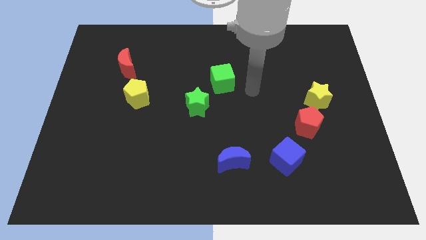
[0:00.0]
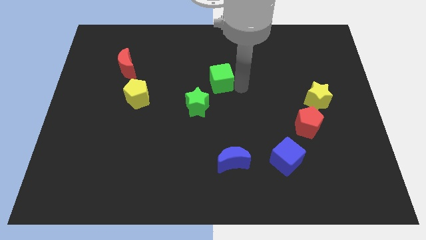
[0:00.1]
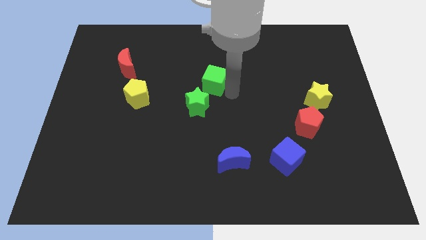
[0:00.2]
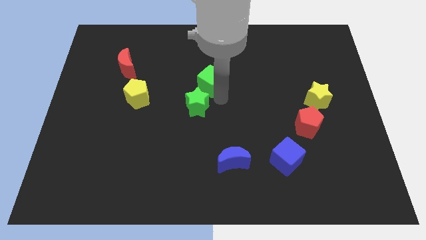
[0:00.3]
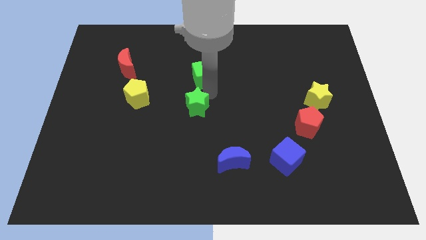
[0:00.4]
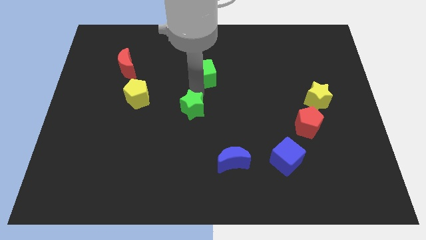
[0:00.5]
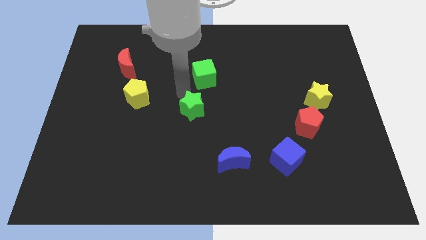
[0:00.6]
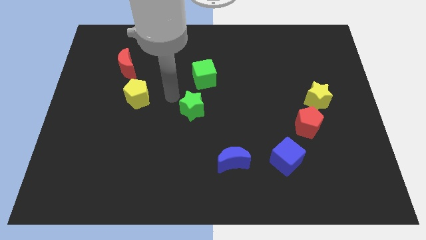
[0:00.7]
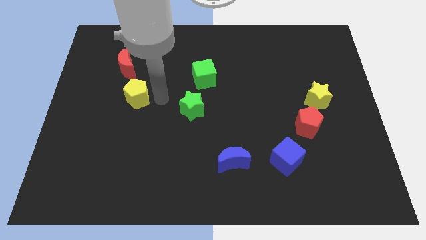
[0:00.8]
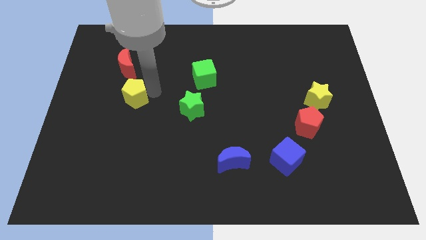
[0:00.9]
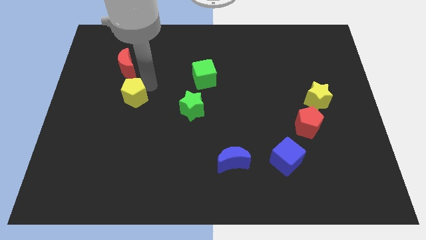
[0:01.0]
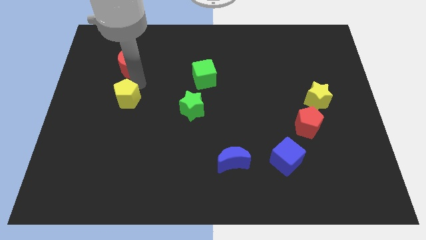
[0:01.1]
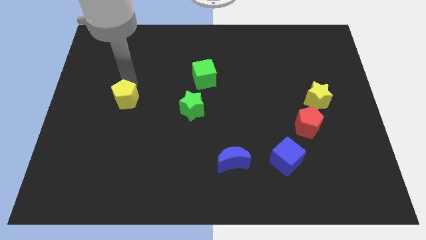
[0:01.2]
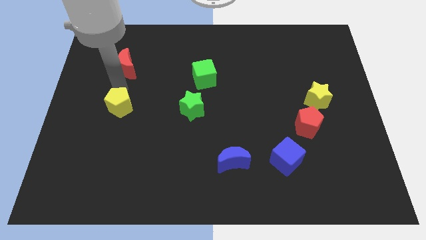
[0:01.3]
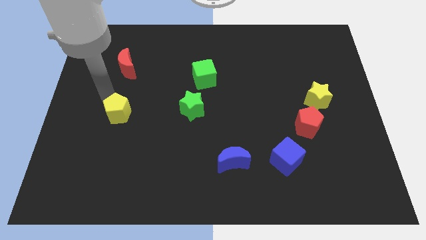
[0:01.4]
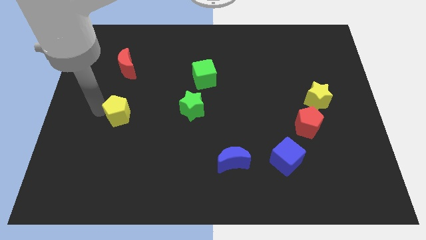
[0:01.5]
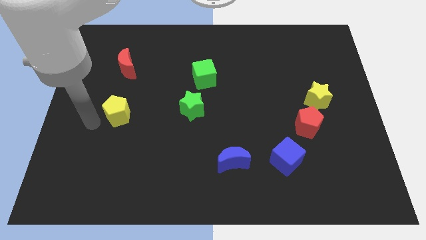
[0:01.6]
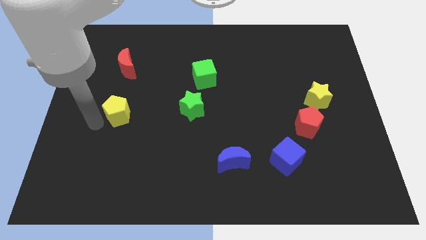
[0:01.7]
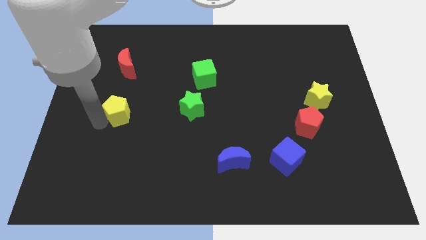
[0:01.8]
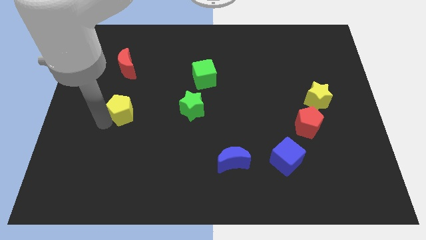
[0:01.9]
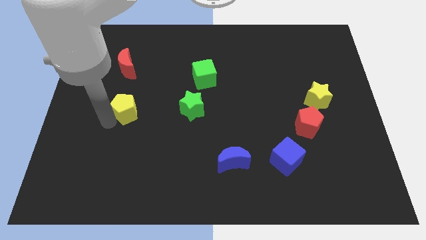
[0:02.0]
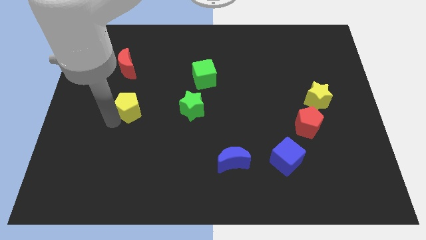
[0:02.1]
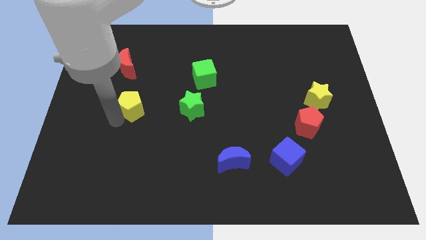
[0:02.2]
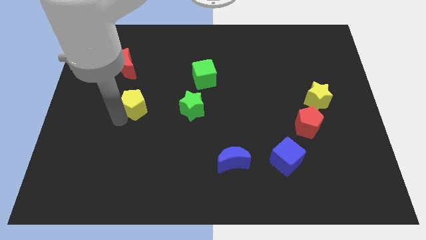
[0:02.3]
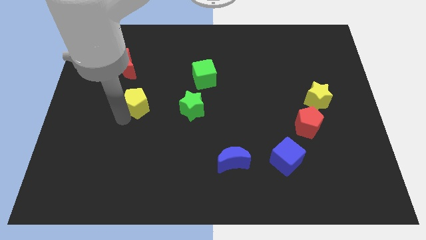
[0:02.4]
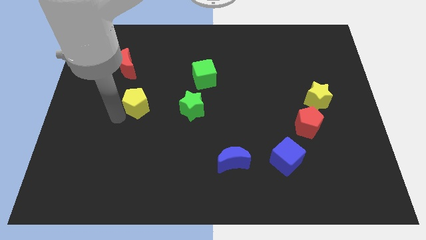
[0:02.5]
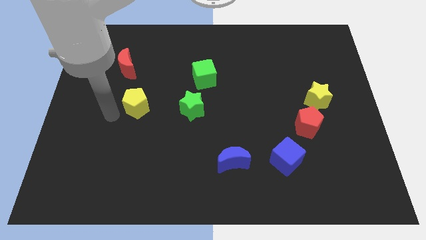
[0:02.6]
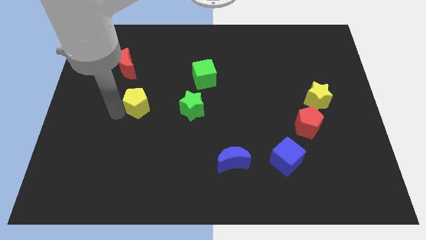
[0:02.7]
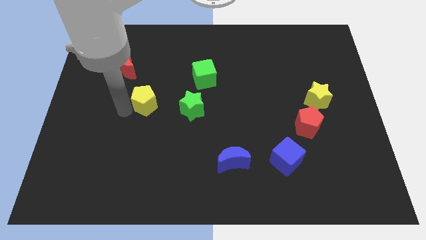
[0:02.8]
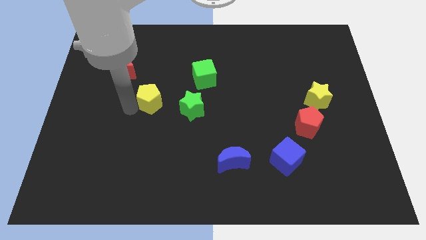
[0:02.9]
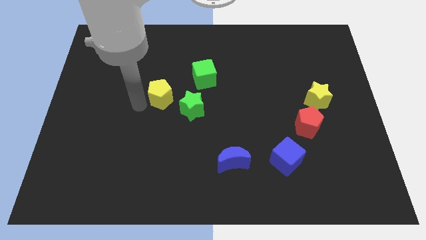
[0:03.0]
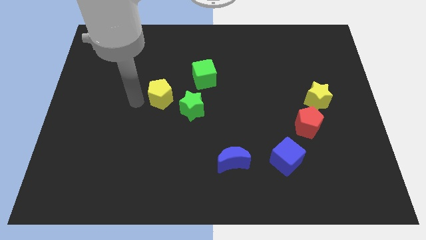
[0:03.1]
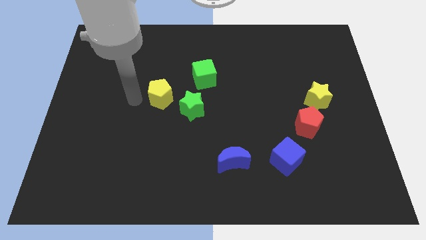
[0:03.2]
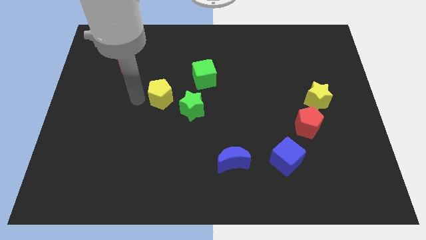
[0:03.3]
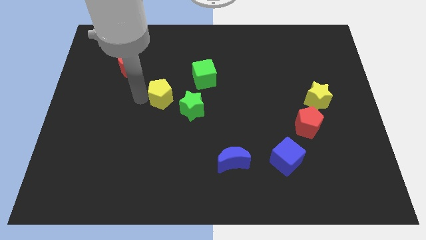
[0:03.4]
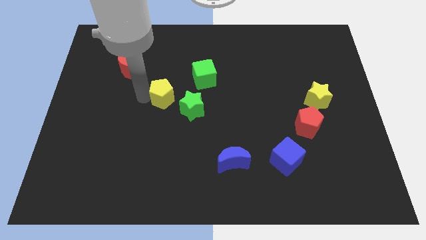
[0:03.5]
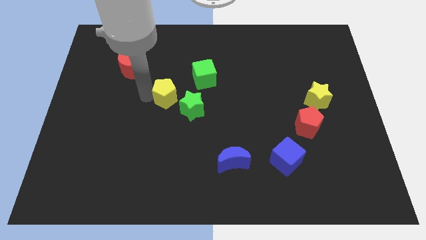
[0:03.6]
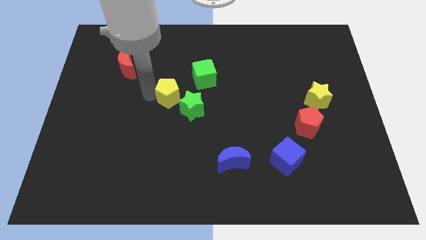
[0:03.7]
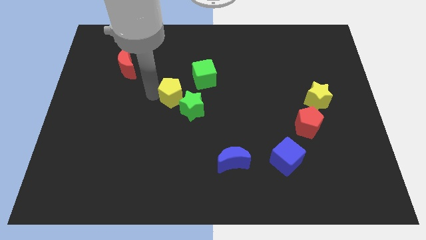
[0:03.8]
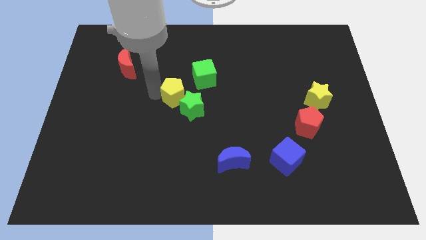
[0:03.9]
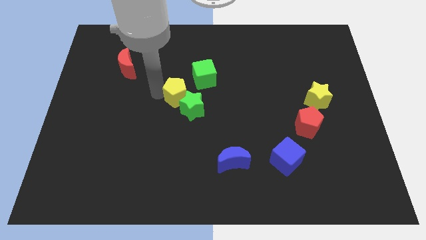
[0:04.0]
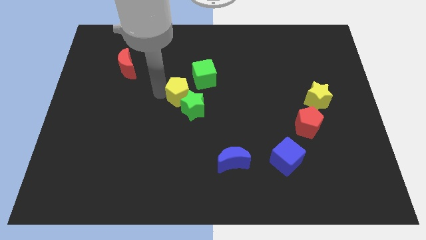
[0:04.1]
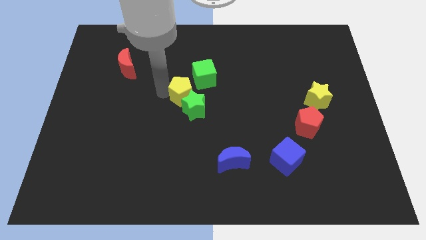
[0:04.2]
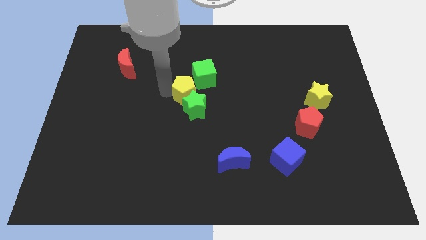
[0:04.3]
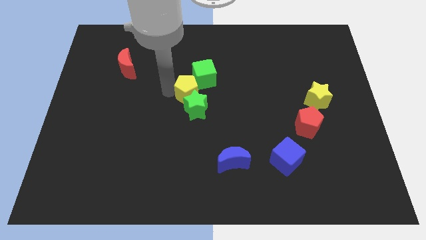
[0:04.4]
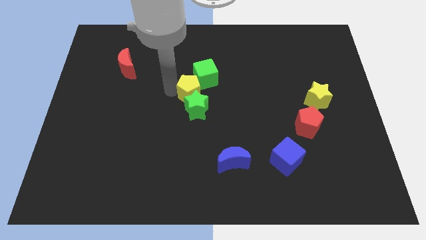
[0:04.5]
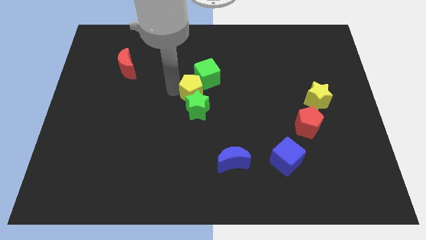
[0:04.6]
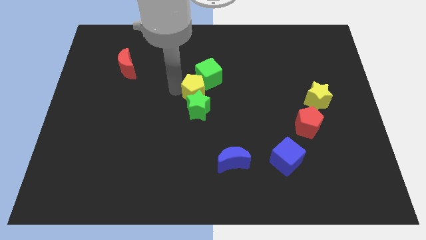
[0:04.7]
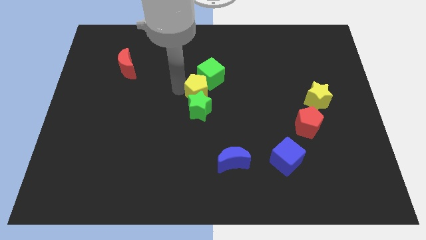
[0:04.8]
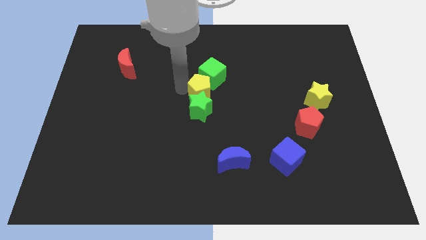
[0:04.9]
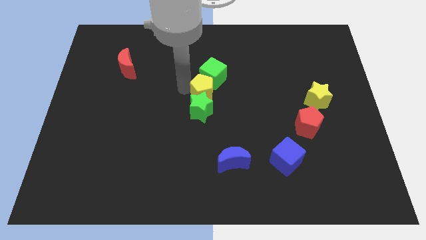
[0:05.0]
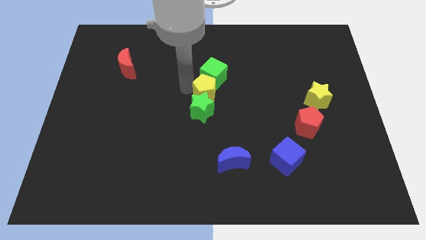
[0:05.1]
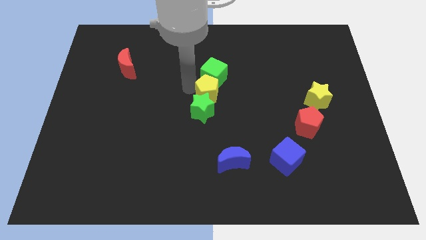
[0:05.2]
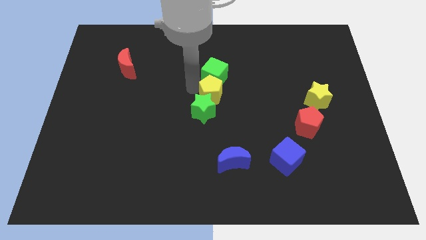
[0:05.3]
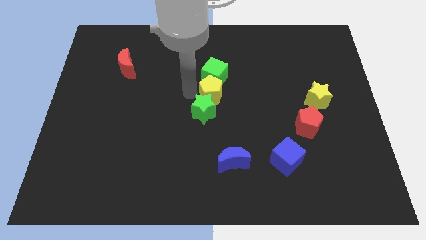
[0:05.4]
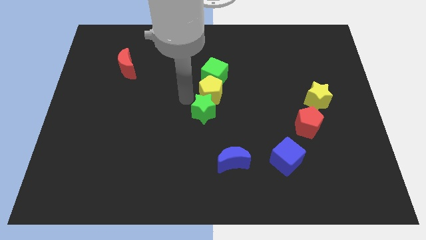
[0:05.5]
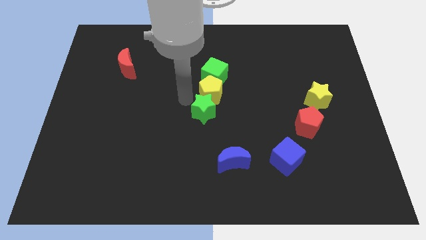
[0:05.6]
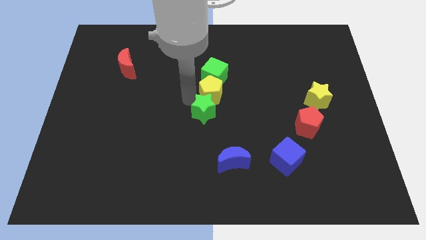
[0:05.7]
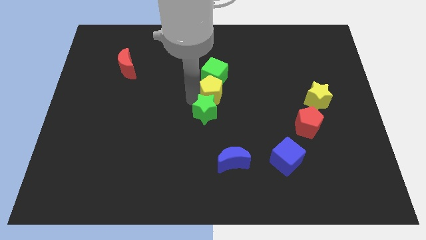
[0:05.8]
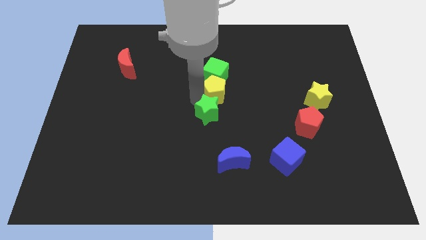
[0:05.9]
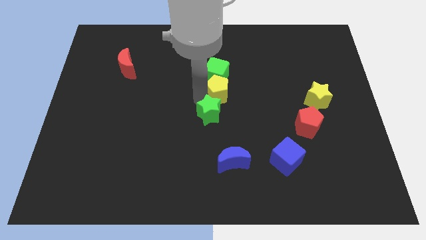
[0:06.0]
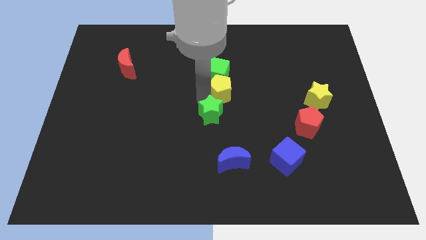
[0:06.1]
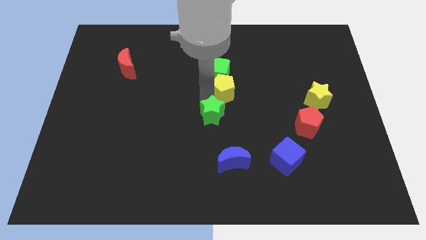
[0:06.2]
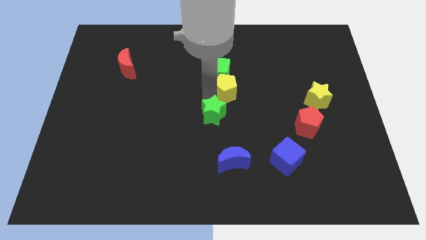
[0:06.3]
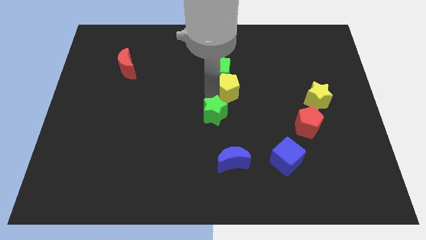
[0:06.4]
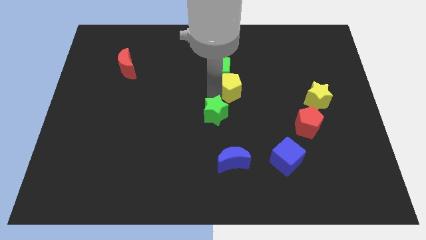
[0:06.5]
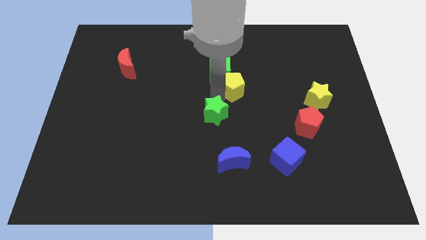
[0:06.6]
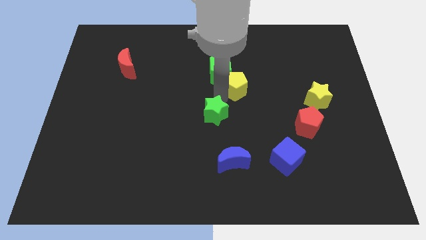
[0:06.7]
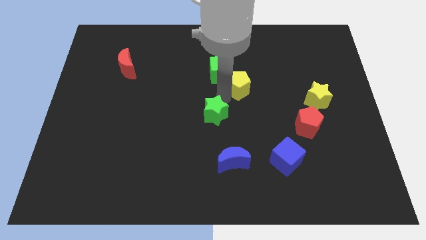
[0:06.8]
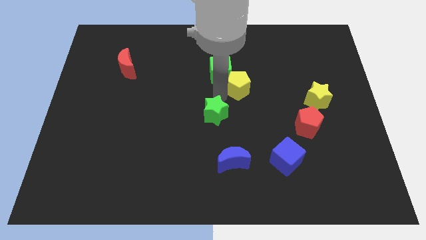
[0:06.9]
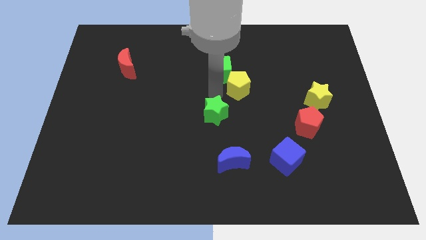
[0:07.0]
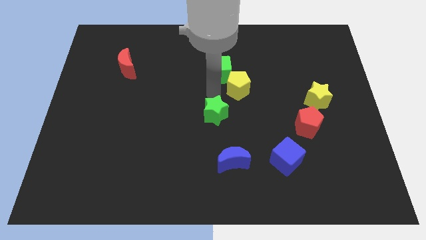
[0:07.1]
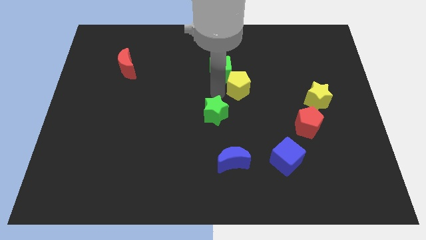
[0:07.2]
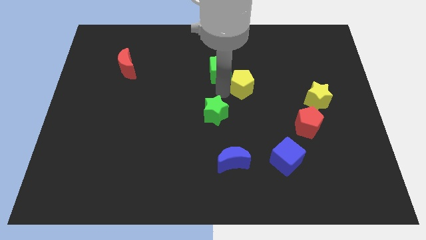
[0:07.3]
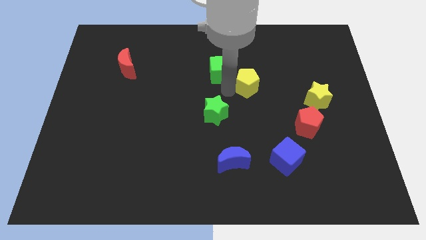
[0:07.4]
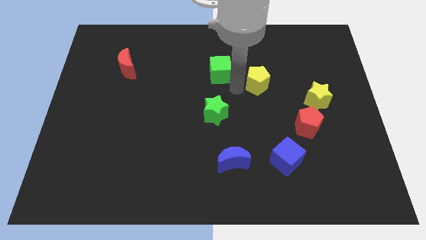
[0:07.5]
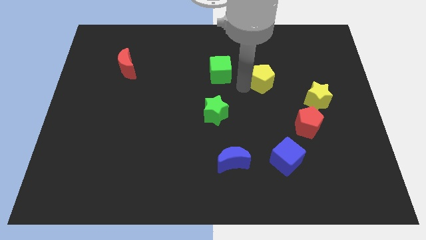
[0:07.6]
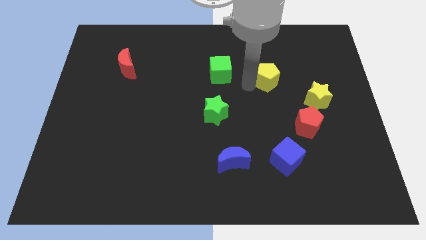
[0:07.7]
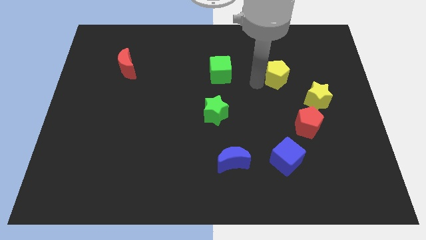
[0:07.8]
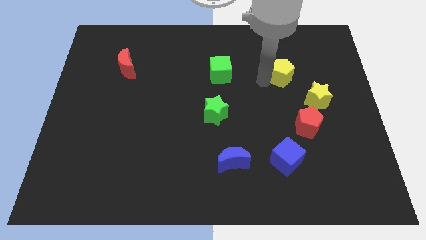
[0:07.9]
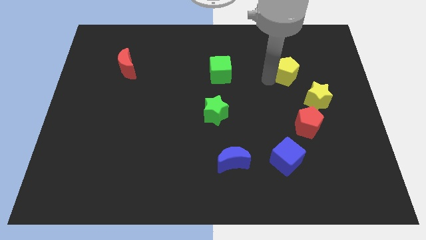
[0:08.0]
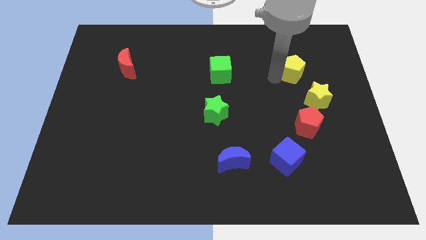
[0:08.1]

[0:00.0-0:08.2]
move the yellow pentagon to the top side of the yellow star
